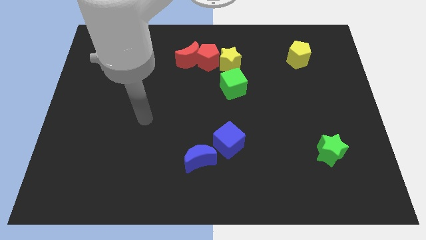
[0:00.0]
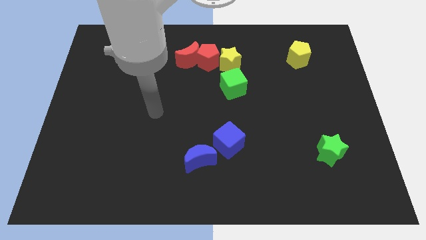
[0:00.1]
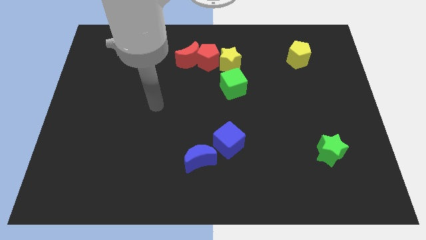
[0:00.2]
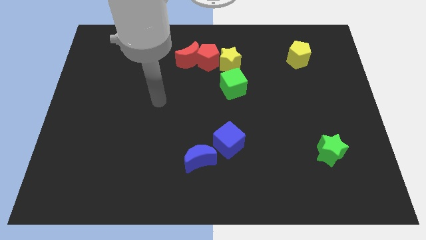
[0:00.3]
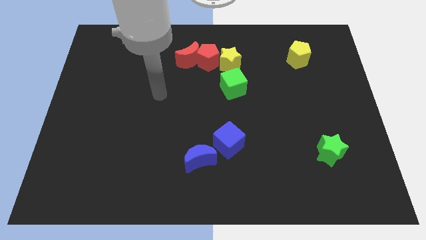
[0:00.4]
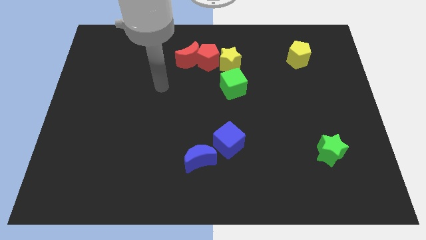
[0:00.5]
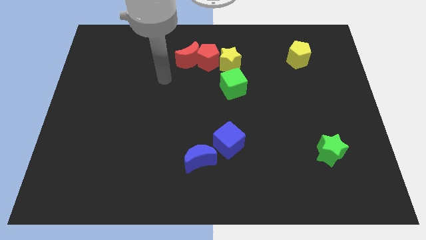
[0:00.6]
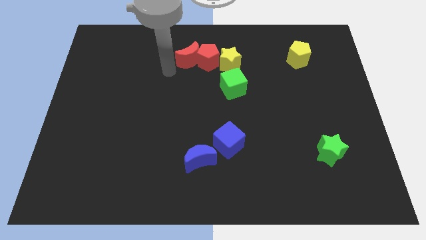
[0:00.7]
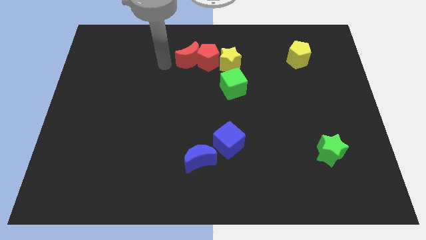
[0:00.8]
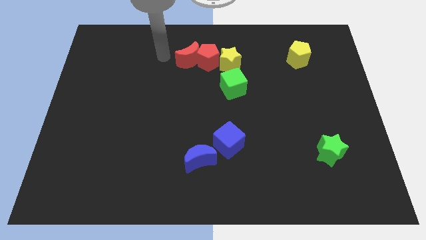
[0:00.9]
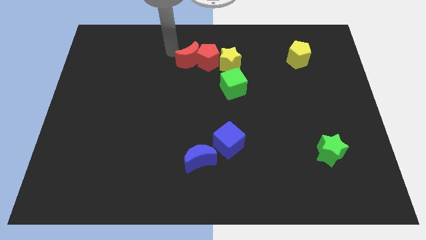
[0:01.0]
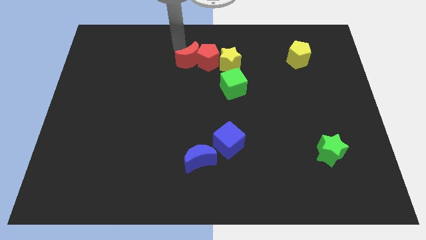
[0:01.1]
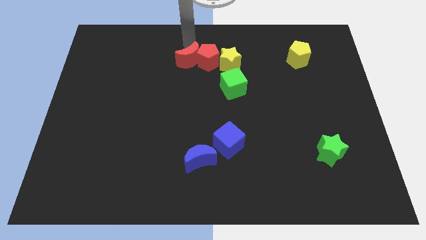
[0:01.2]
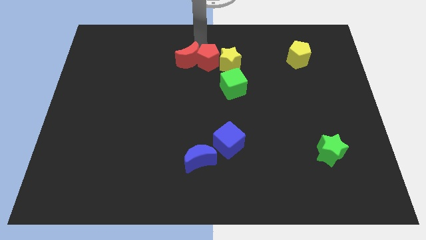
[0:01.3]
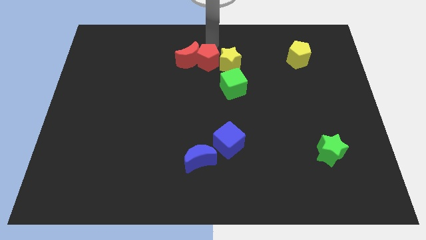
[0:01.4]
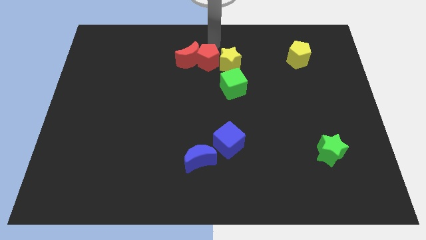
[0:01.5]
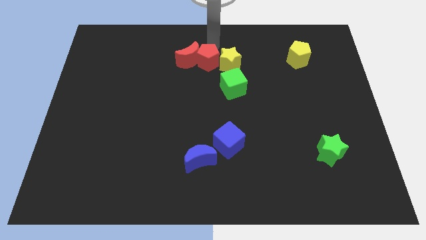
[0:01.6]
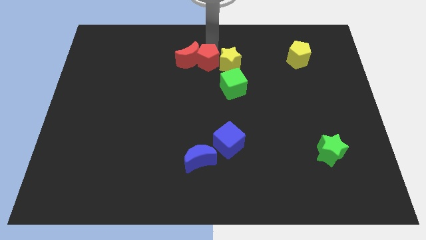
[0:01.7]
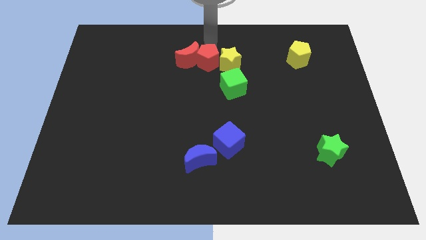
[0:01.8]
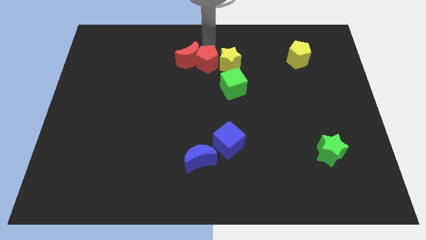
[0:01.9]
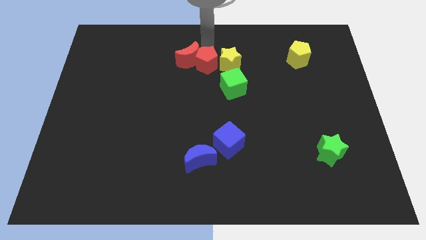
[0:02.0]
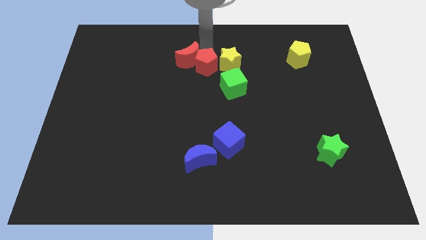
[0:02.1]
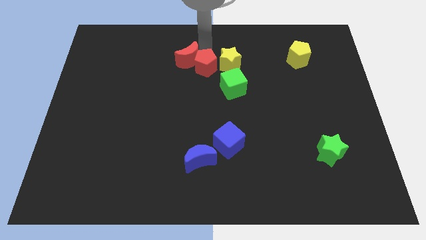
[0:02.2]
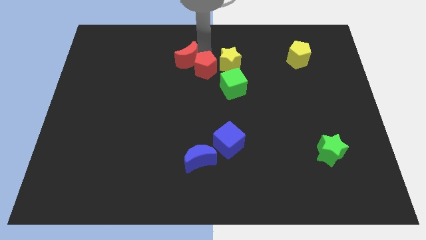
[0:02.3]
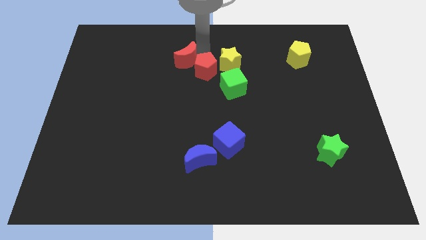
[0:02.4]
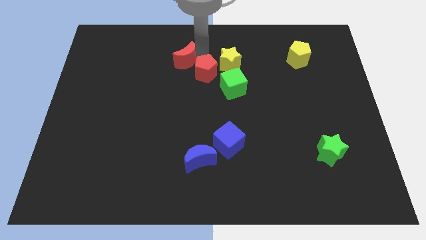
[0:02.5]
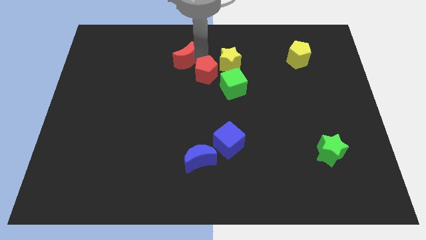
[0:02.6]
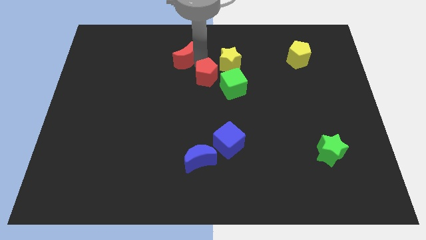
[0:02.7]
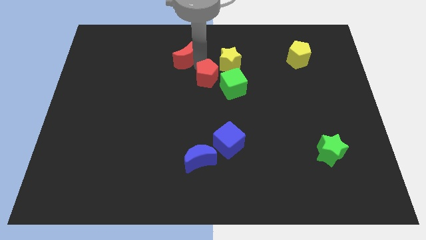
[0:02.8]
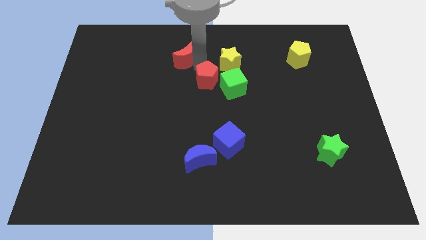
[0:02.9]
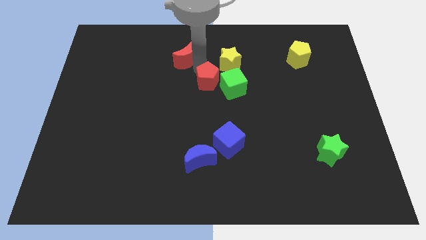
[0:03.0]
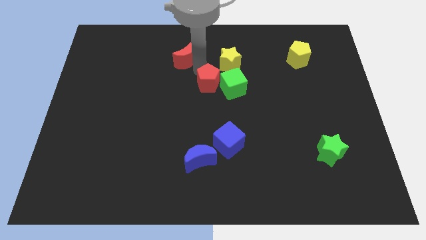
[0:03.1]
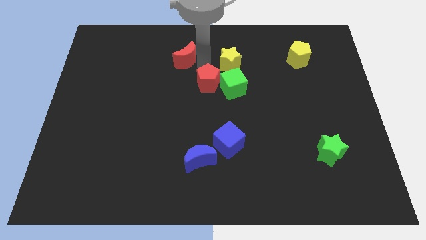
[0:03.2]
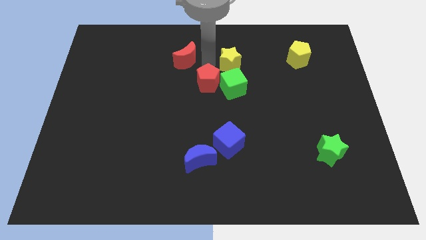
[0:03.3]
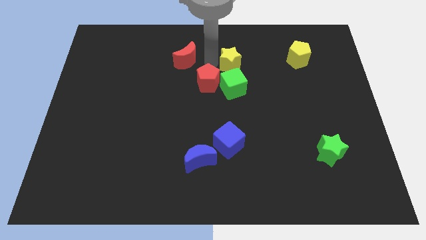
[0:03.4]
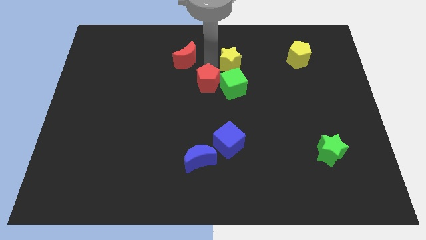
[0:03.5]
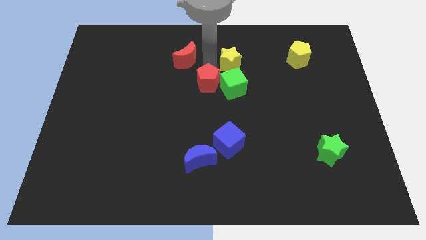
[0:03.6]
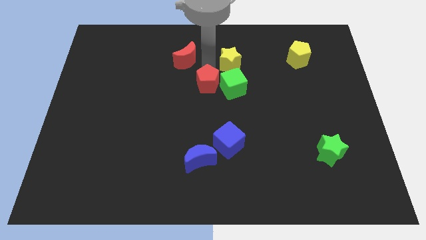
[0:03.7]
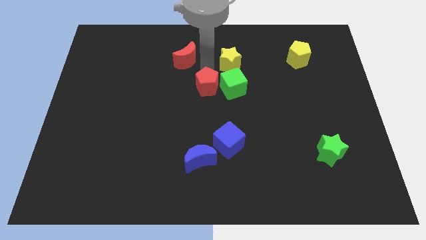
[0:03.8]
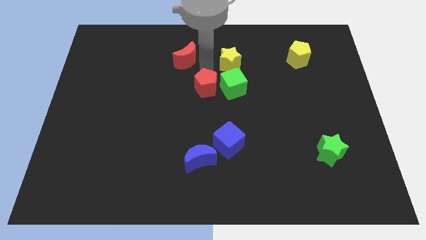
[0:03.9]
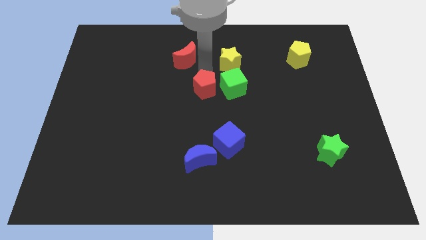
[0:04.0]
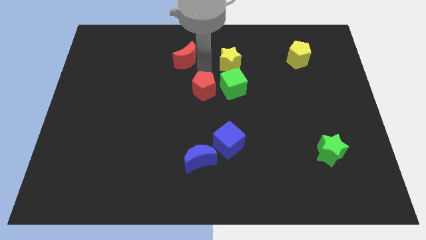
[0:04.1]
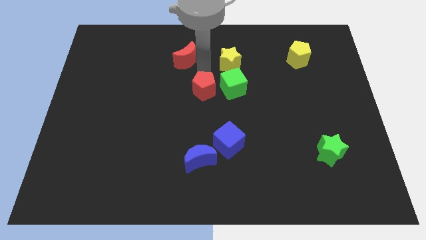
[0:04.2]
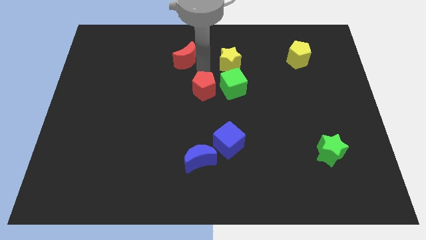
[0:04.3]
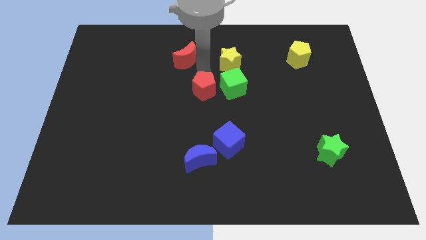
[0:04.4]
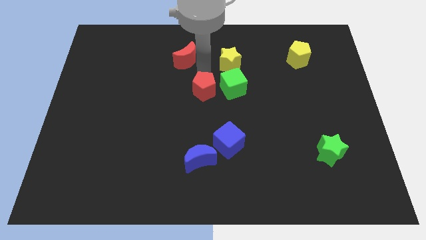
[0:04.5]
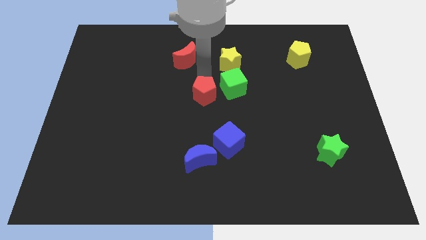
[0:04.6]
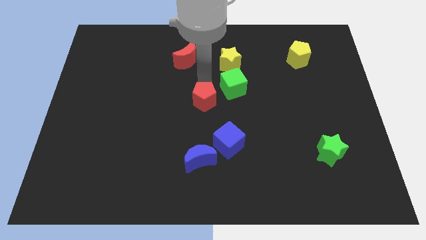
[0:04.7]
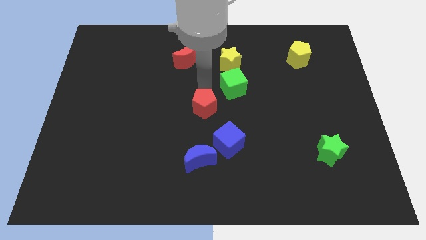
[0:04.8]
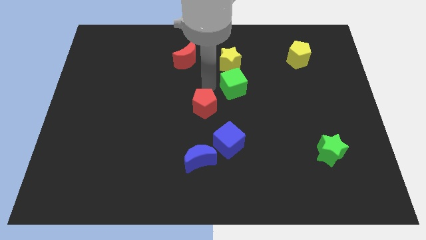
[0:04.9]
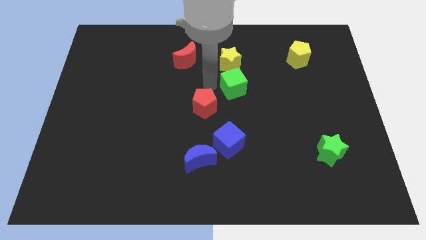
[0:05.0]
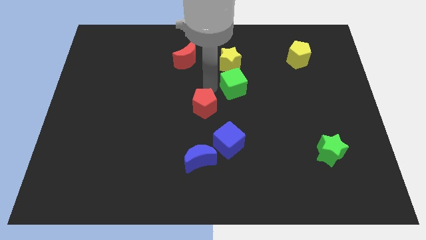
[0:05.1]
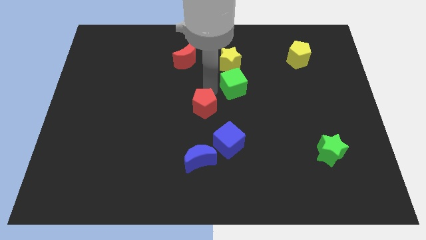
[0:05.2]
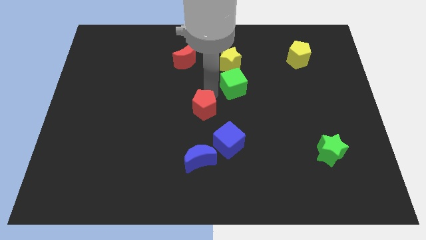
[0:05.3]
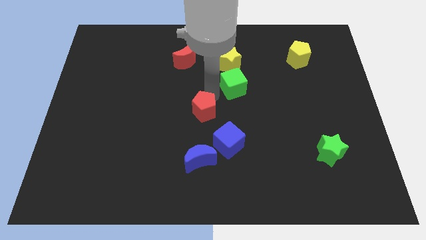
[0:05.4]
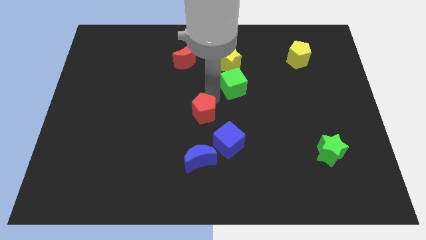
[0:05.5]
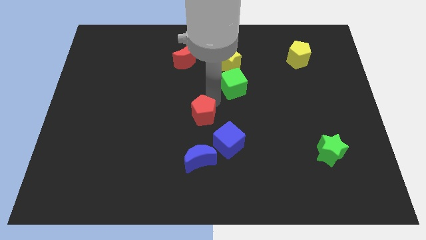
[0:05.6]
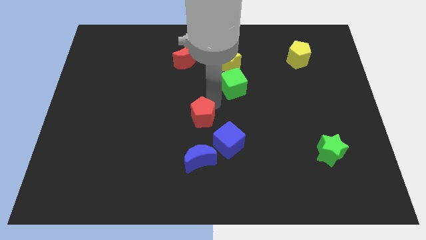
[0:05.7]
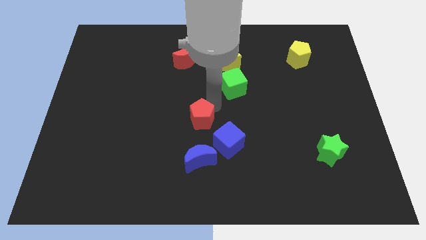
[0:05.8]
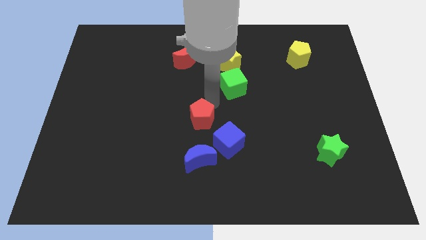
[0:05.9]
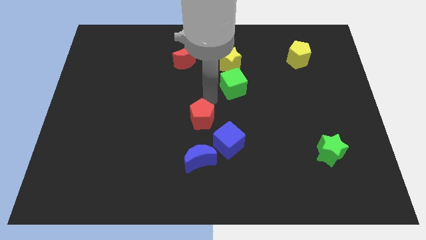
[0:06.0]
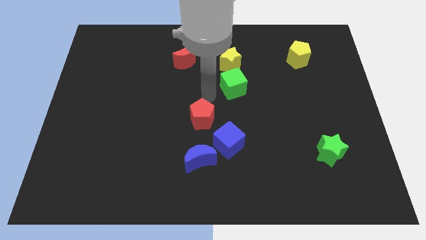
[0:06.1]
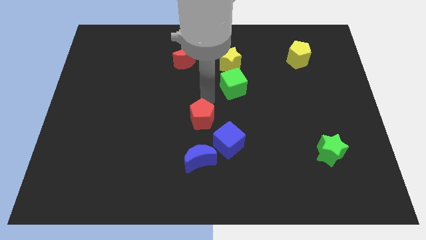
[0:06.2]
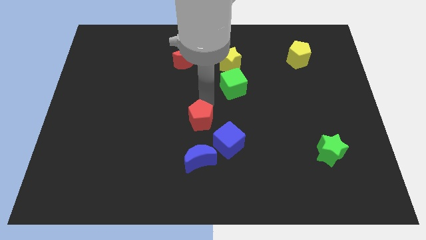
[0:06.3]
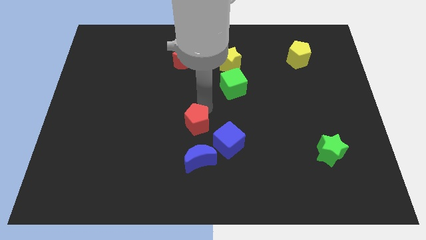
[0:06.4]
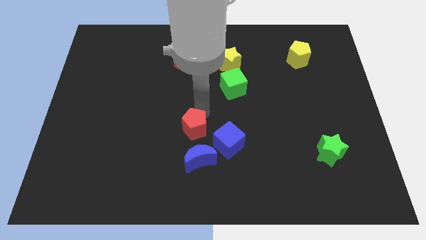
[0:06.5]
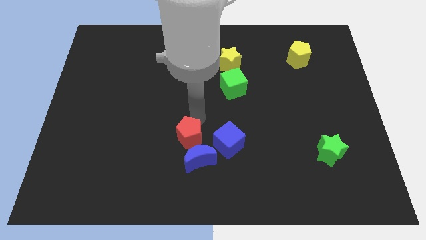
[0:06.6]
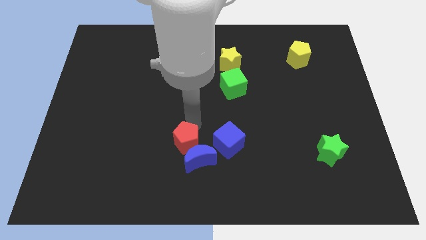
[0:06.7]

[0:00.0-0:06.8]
move the red pentagon towards the blue moon
